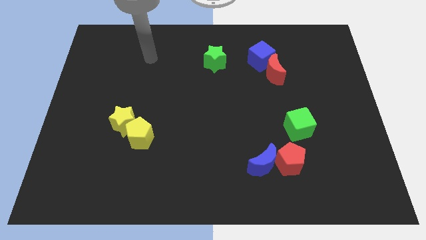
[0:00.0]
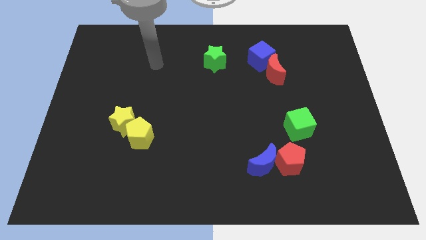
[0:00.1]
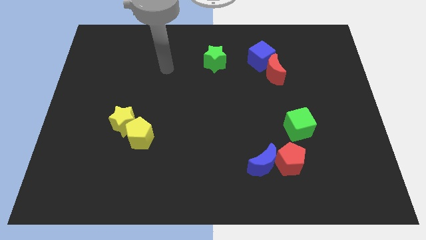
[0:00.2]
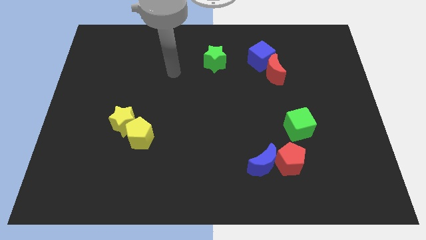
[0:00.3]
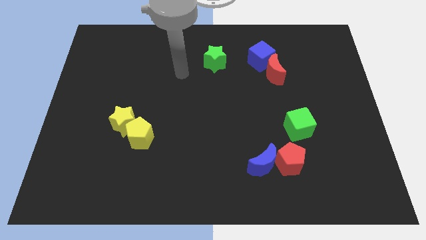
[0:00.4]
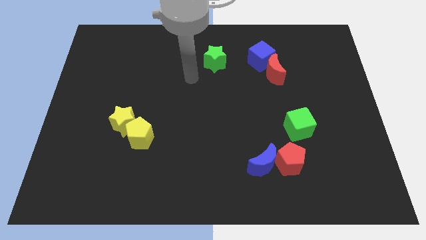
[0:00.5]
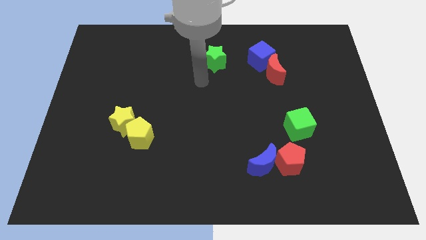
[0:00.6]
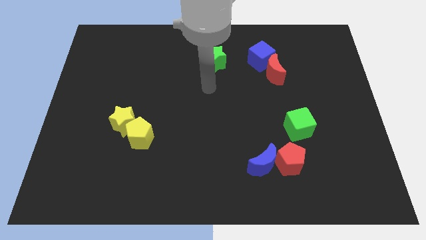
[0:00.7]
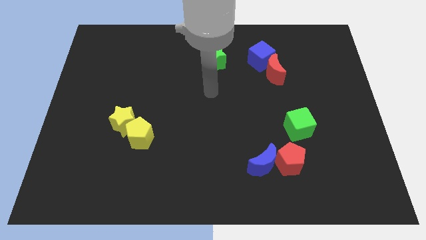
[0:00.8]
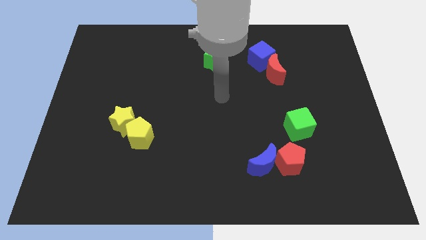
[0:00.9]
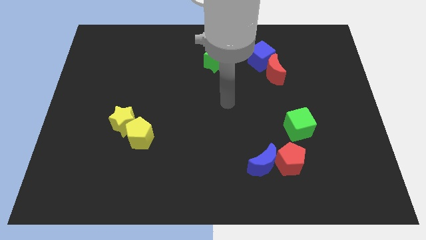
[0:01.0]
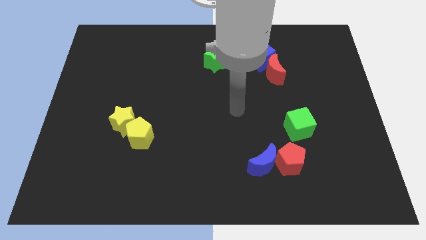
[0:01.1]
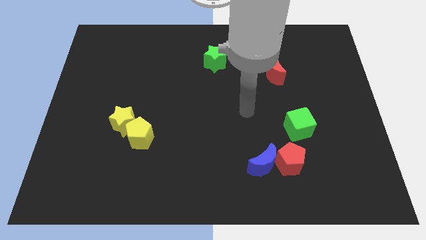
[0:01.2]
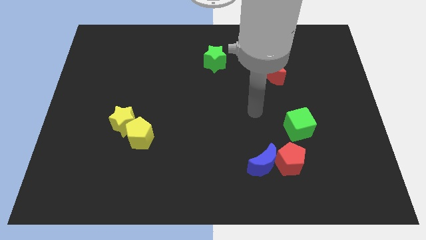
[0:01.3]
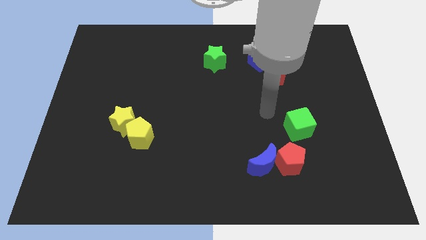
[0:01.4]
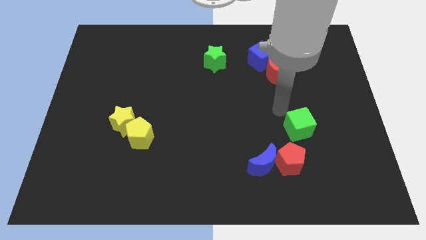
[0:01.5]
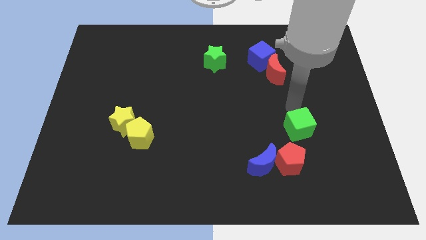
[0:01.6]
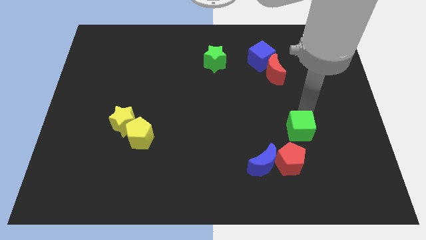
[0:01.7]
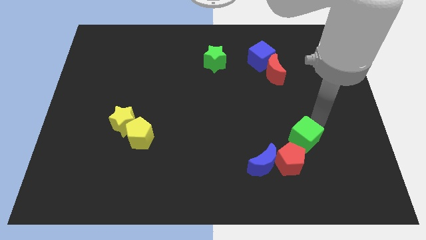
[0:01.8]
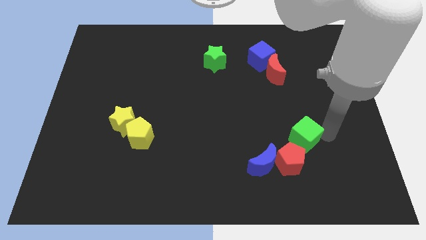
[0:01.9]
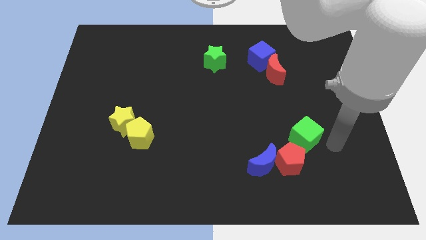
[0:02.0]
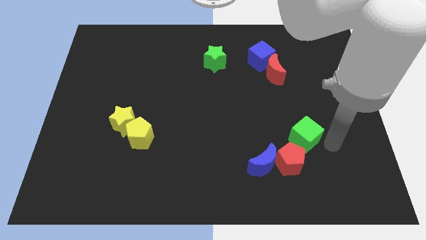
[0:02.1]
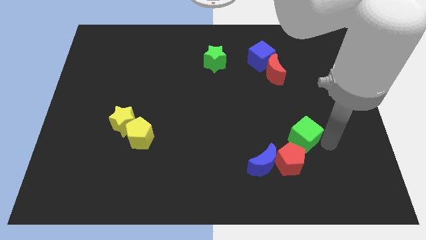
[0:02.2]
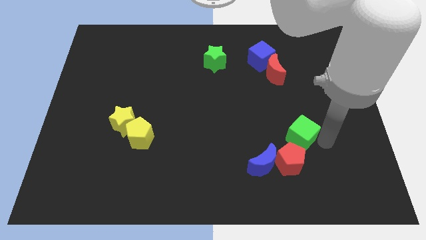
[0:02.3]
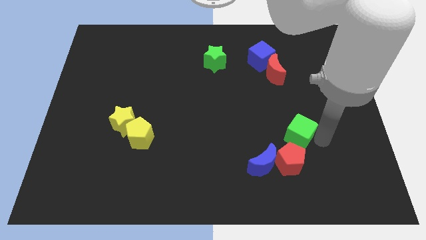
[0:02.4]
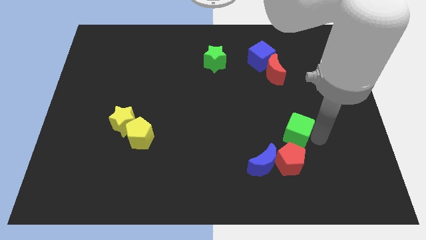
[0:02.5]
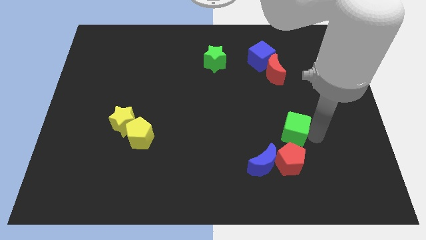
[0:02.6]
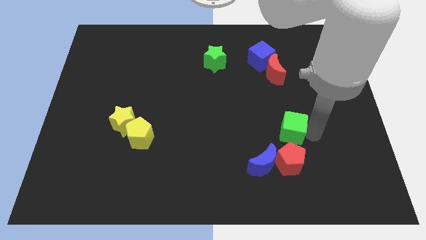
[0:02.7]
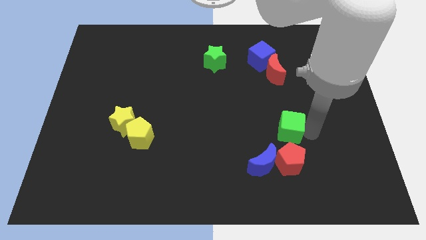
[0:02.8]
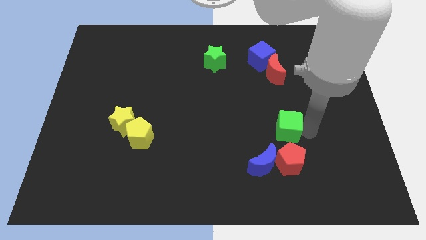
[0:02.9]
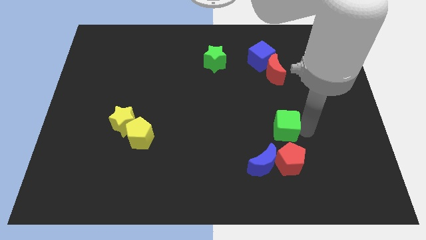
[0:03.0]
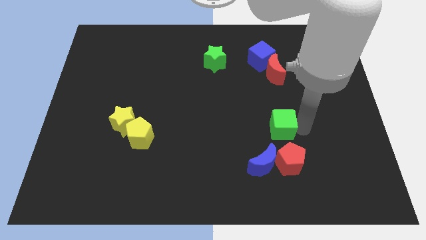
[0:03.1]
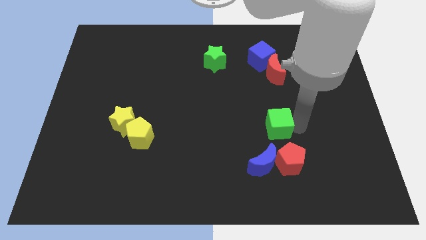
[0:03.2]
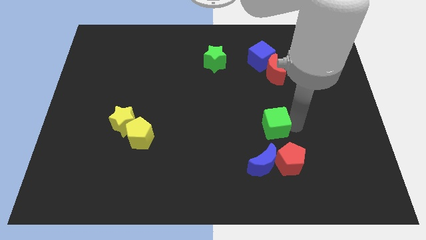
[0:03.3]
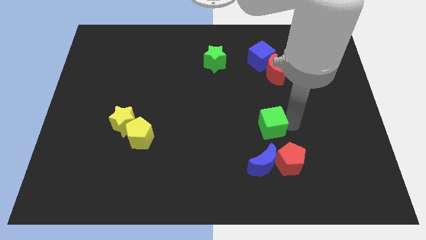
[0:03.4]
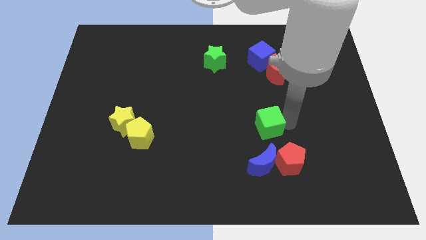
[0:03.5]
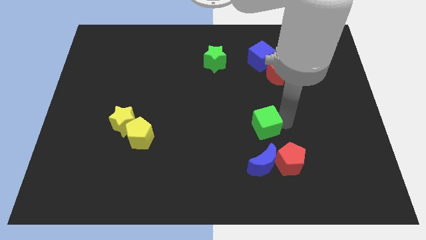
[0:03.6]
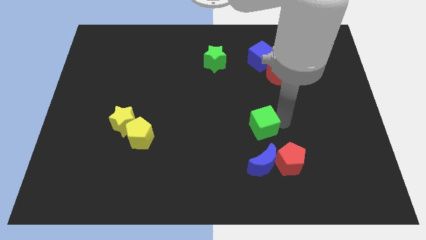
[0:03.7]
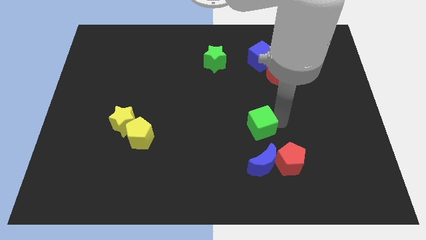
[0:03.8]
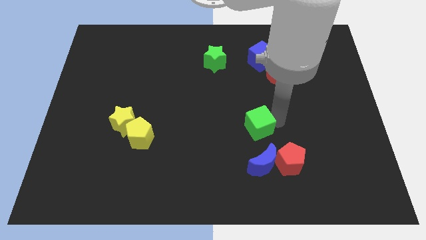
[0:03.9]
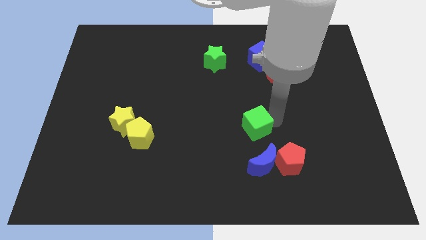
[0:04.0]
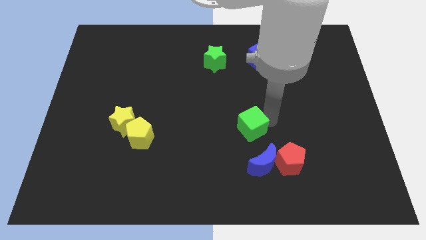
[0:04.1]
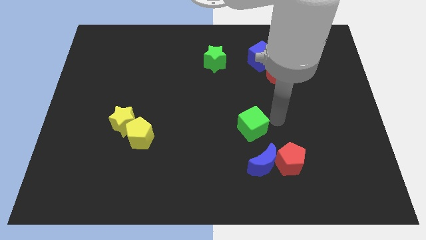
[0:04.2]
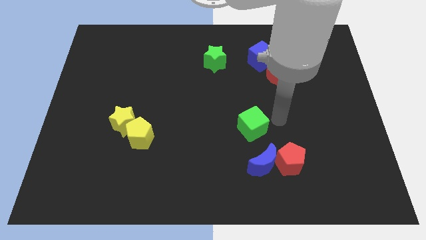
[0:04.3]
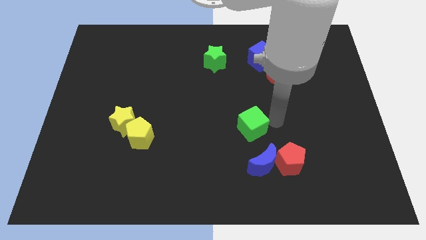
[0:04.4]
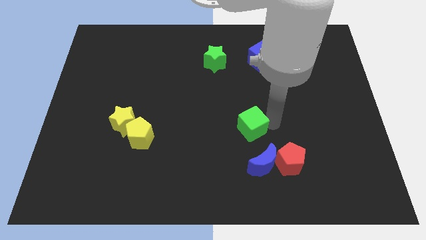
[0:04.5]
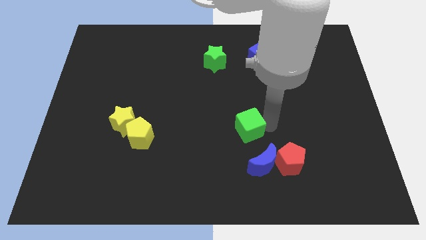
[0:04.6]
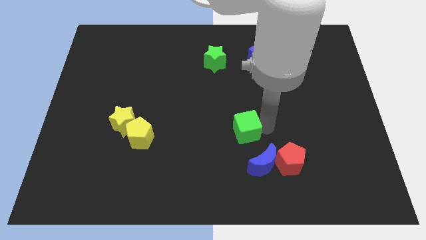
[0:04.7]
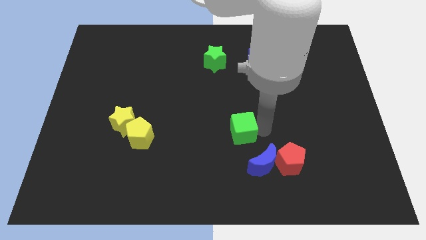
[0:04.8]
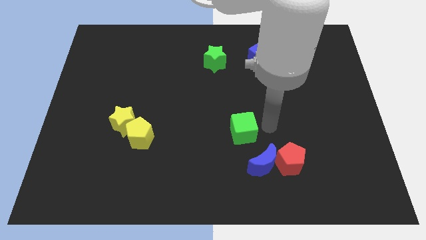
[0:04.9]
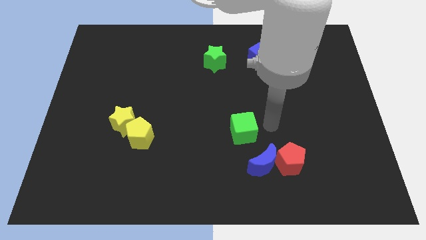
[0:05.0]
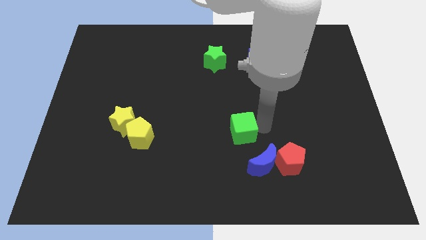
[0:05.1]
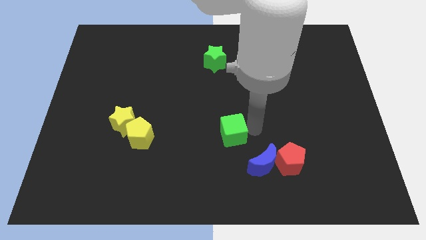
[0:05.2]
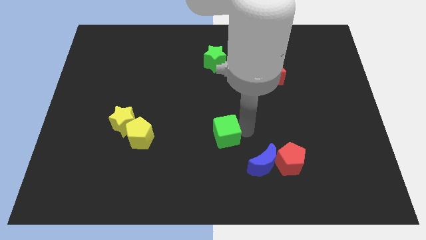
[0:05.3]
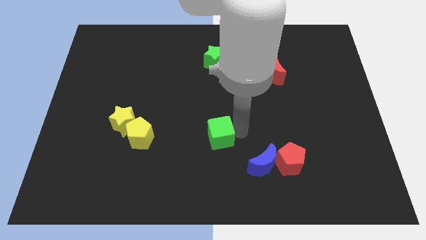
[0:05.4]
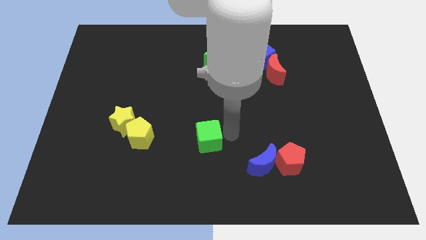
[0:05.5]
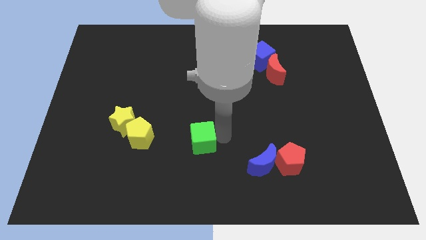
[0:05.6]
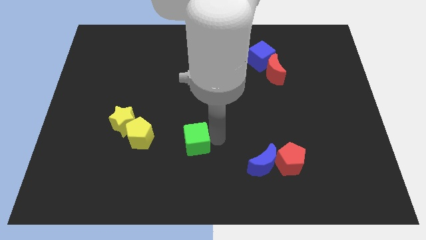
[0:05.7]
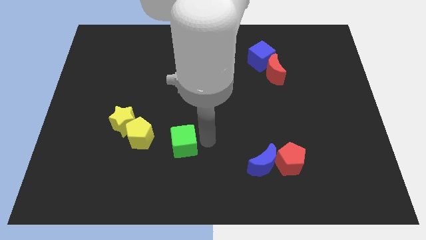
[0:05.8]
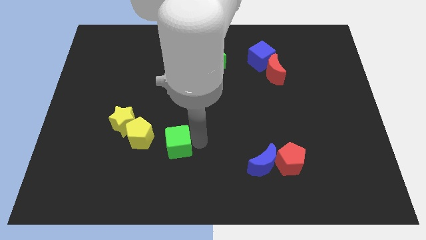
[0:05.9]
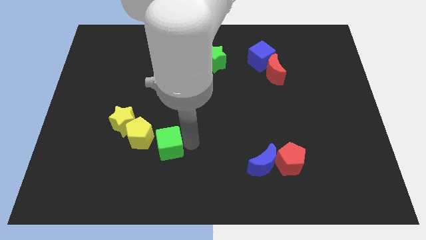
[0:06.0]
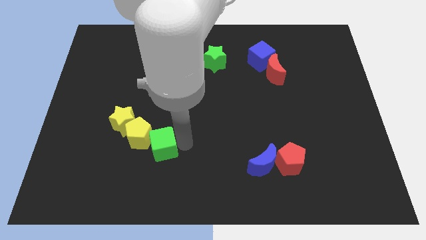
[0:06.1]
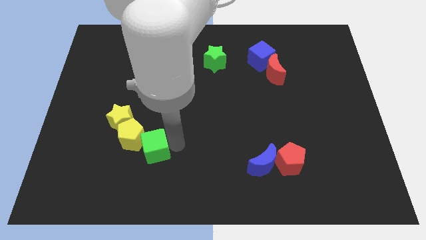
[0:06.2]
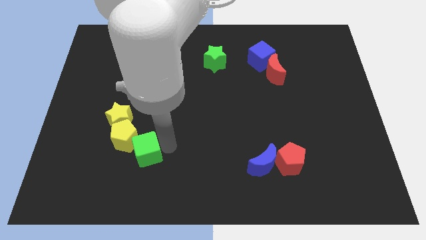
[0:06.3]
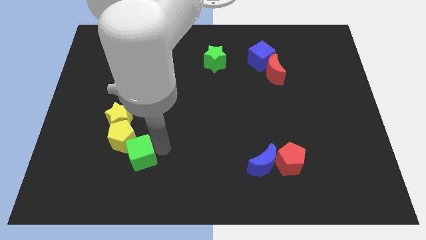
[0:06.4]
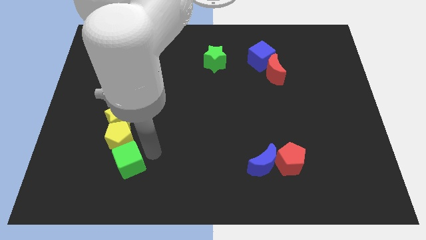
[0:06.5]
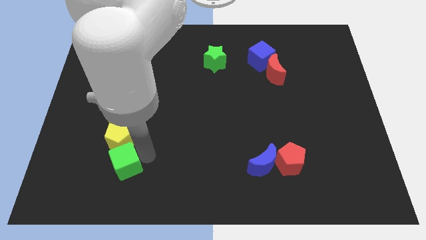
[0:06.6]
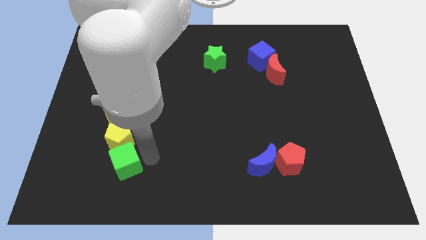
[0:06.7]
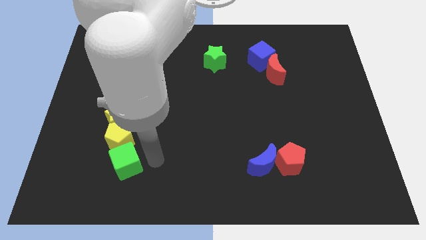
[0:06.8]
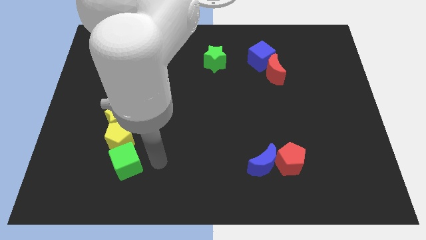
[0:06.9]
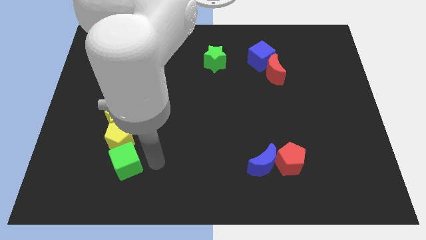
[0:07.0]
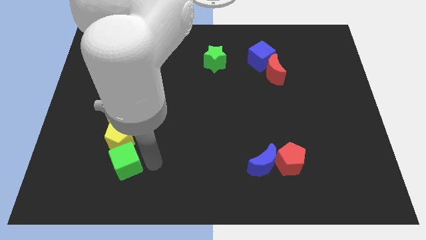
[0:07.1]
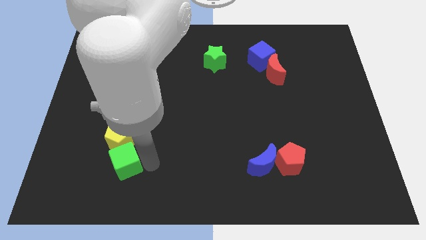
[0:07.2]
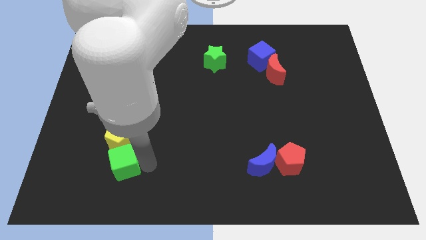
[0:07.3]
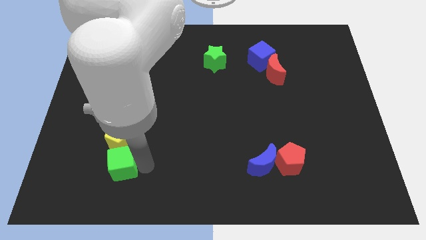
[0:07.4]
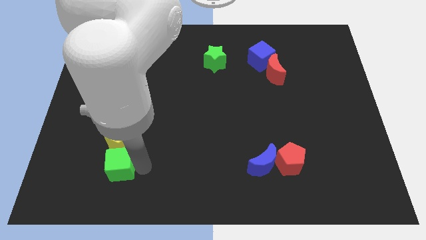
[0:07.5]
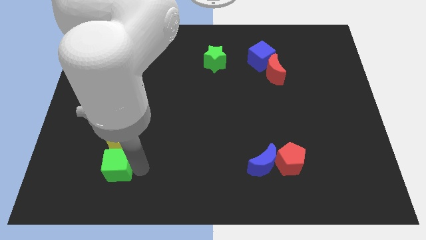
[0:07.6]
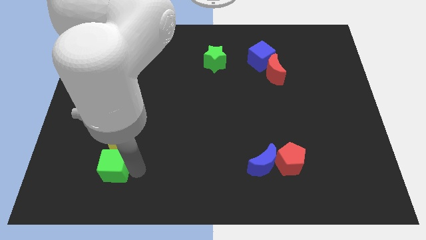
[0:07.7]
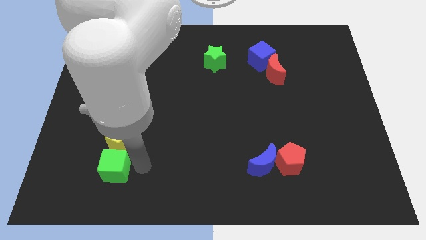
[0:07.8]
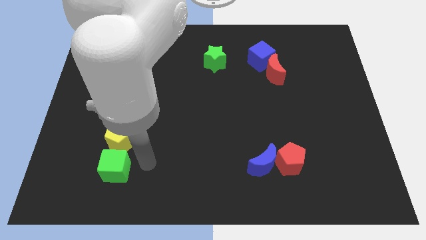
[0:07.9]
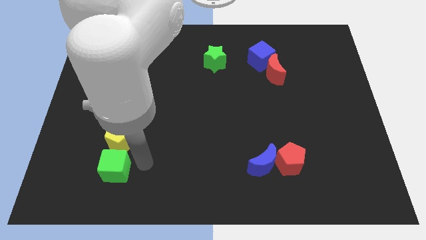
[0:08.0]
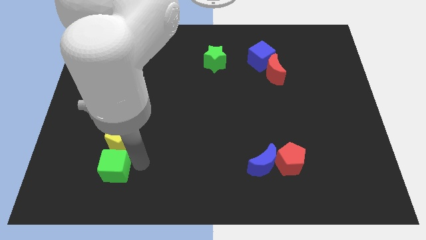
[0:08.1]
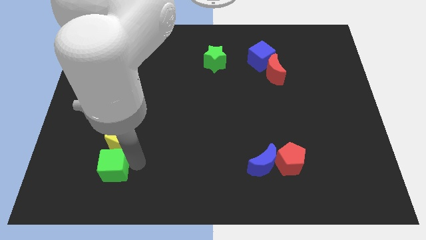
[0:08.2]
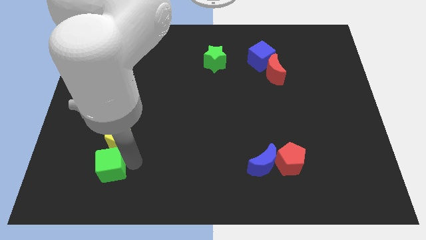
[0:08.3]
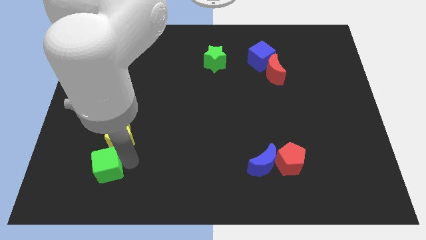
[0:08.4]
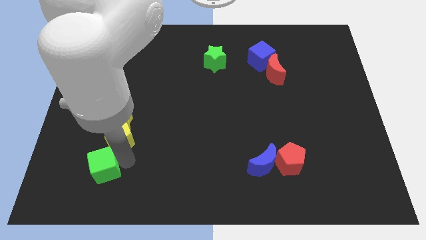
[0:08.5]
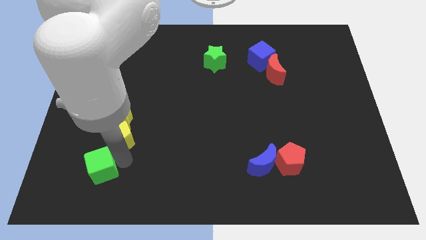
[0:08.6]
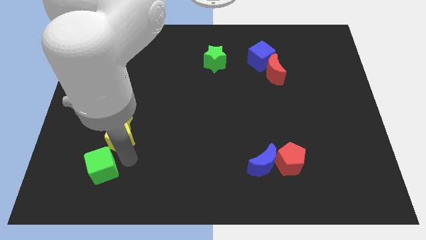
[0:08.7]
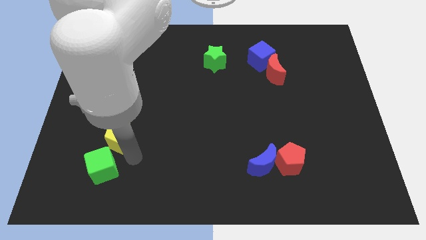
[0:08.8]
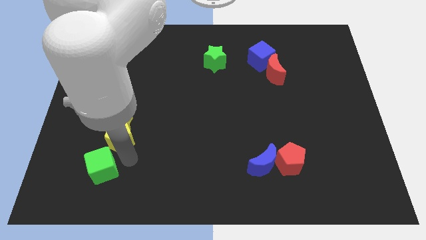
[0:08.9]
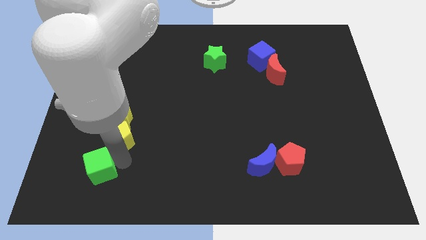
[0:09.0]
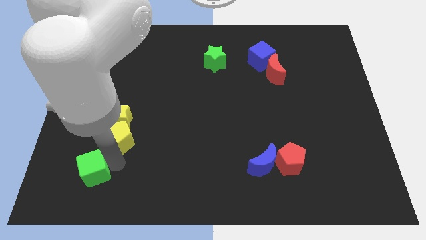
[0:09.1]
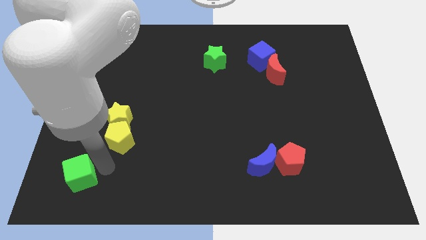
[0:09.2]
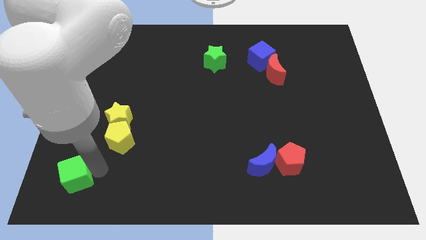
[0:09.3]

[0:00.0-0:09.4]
slide the green cube to the bottom left of the board
